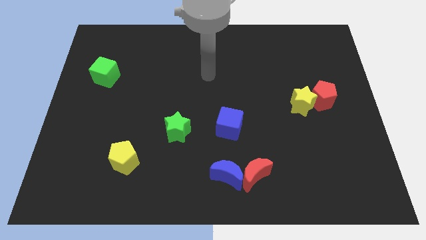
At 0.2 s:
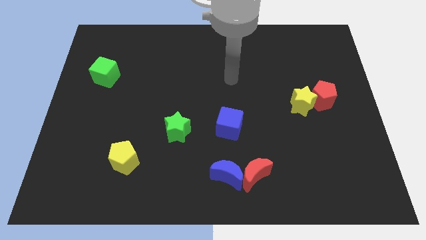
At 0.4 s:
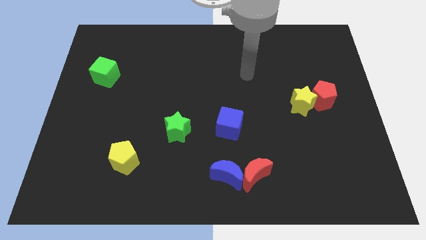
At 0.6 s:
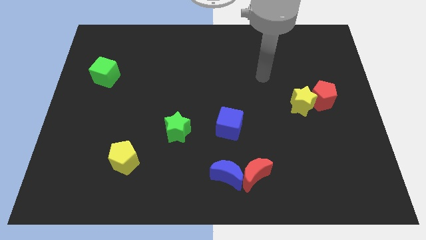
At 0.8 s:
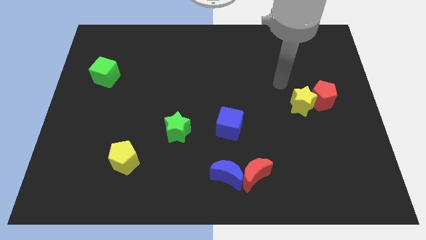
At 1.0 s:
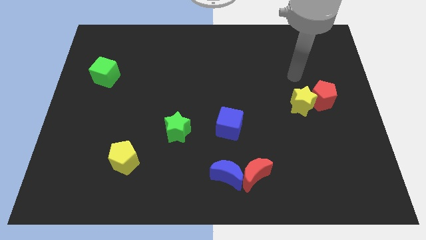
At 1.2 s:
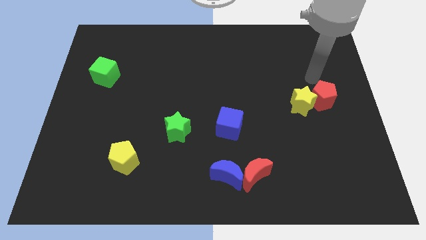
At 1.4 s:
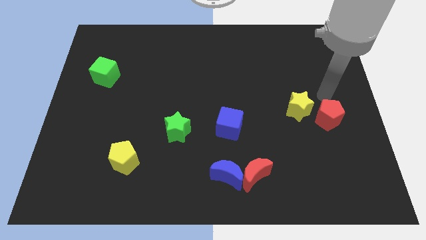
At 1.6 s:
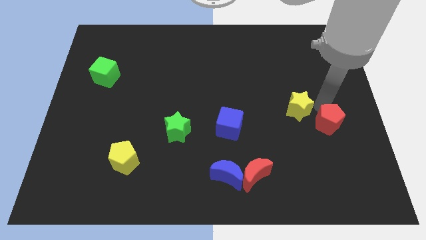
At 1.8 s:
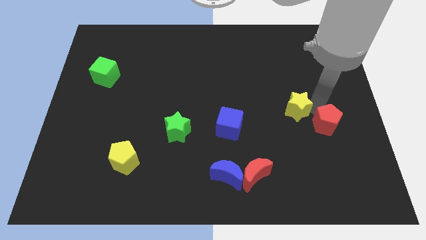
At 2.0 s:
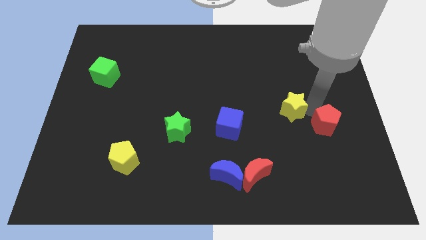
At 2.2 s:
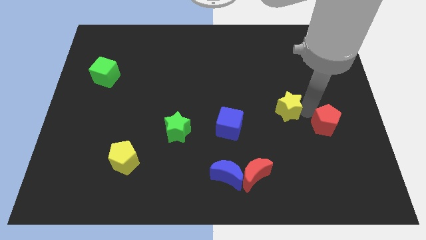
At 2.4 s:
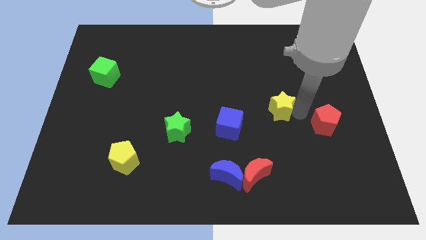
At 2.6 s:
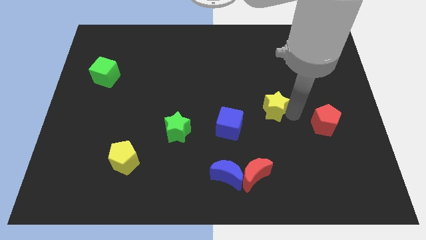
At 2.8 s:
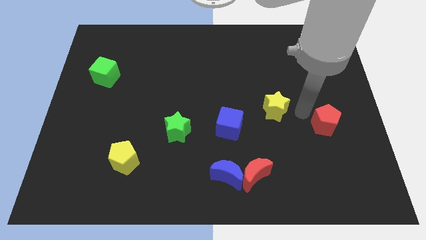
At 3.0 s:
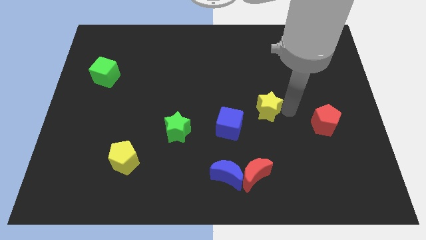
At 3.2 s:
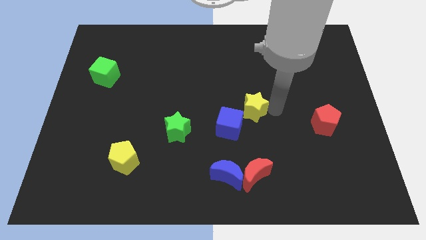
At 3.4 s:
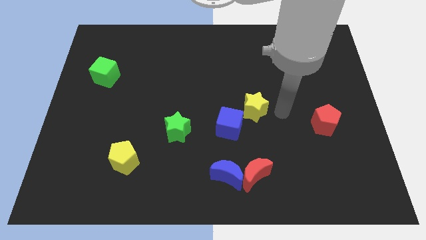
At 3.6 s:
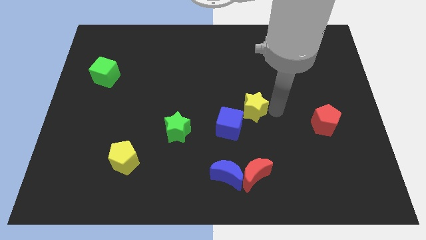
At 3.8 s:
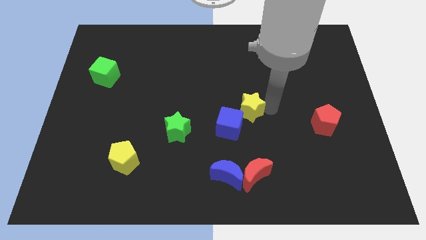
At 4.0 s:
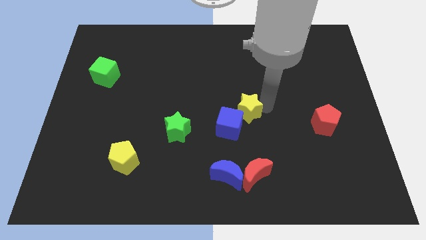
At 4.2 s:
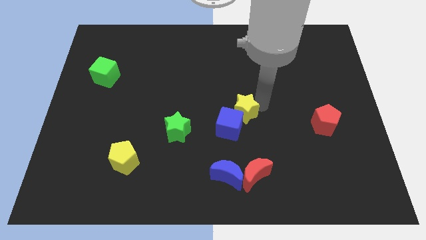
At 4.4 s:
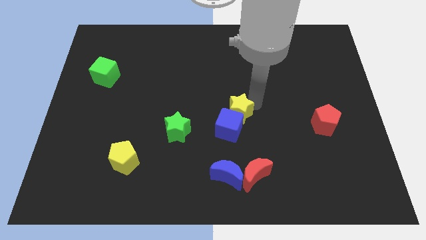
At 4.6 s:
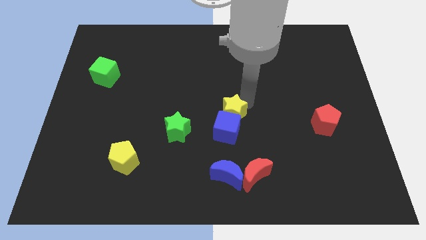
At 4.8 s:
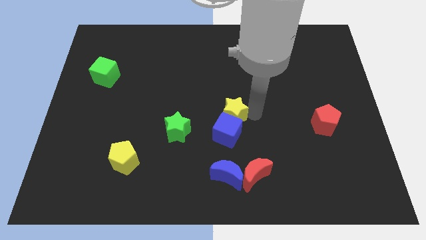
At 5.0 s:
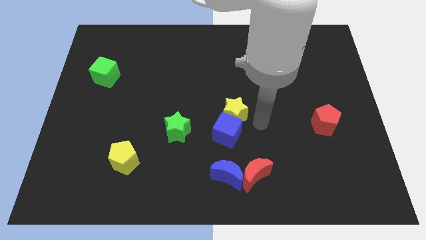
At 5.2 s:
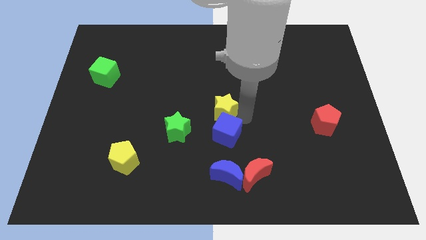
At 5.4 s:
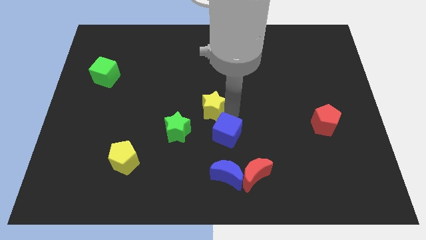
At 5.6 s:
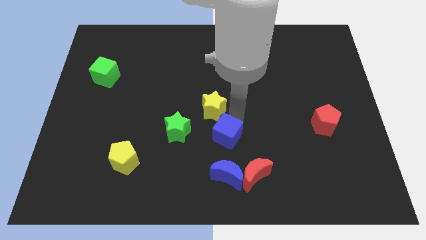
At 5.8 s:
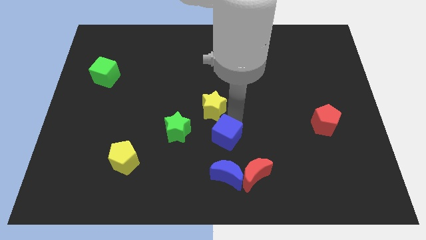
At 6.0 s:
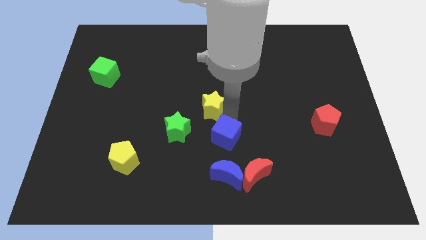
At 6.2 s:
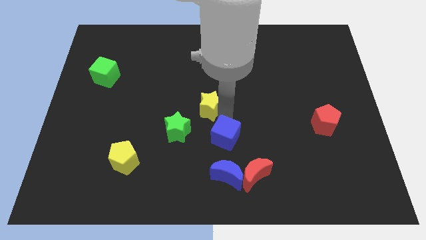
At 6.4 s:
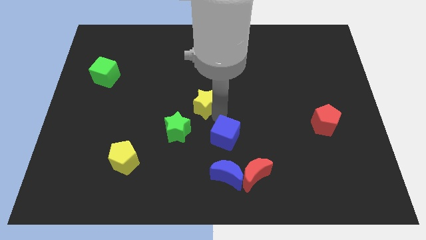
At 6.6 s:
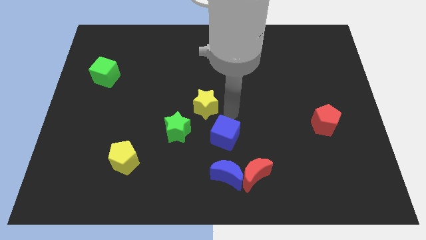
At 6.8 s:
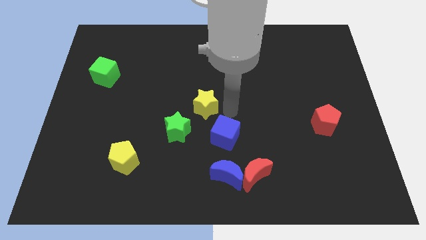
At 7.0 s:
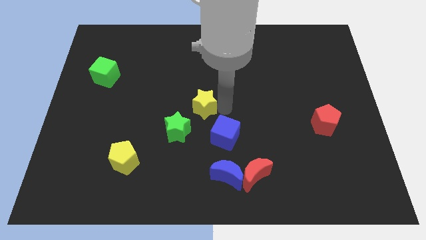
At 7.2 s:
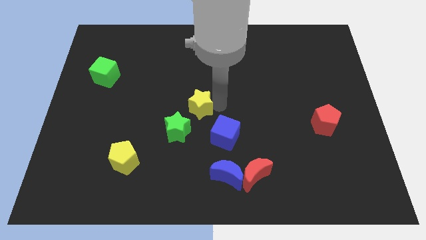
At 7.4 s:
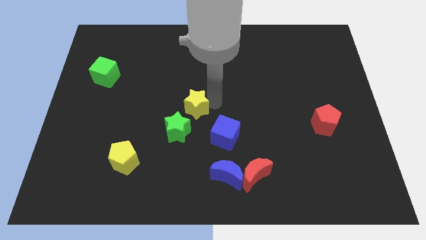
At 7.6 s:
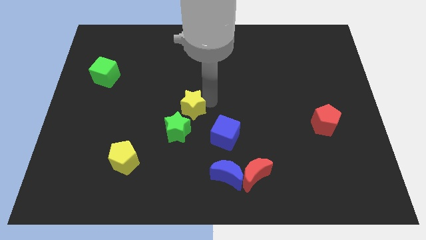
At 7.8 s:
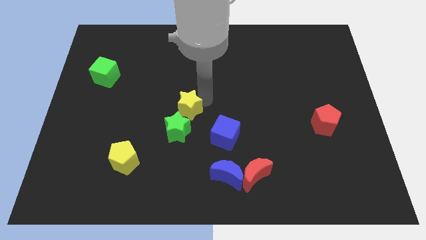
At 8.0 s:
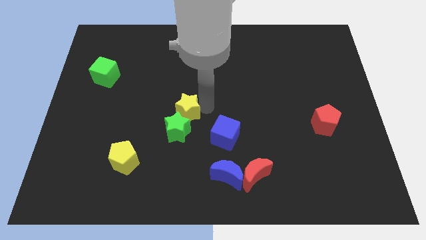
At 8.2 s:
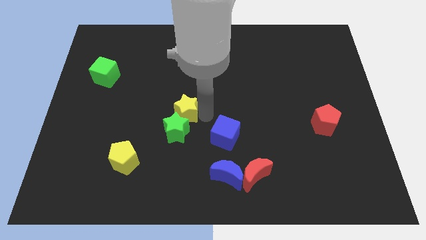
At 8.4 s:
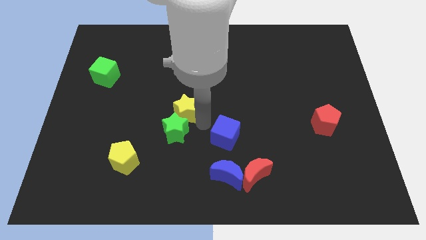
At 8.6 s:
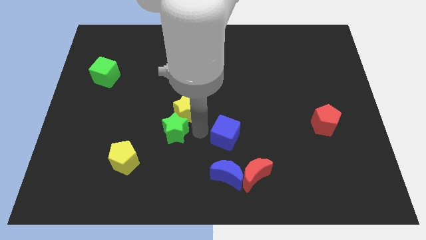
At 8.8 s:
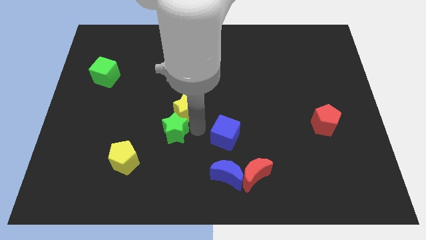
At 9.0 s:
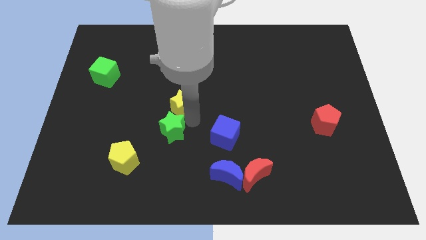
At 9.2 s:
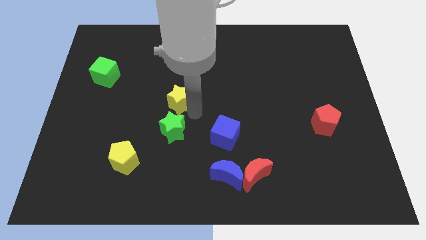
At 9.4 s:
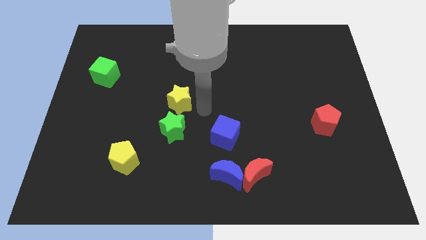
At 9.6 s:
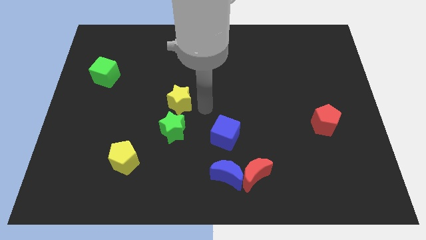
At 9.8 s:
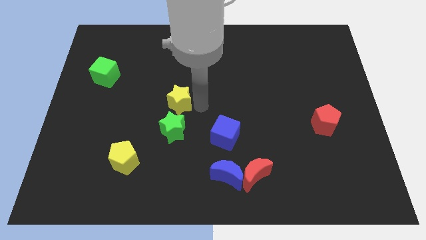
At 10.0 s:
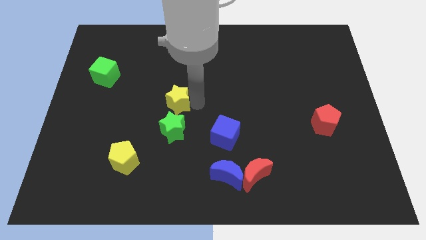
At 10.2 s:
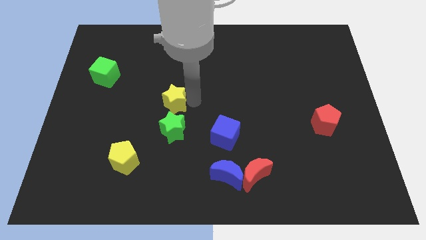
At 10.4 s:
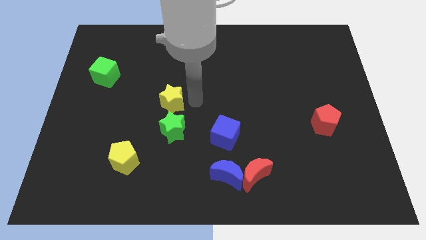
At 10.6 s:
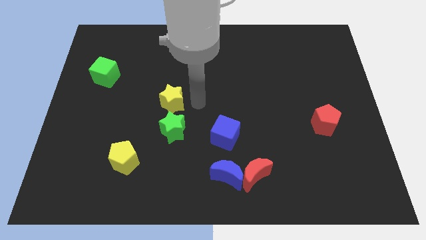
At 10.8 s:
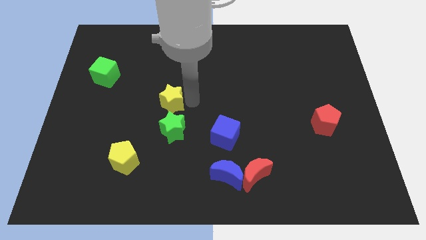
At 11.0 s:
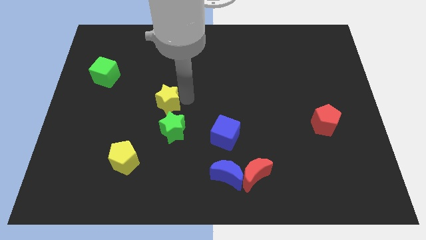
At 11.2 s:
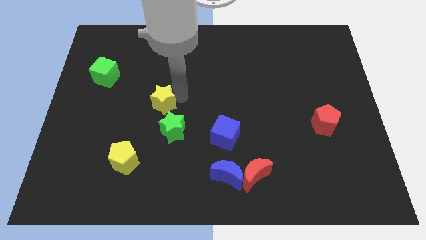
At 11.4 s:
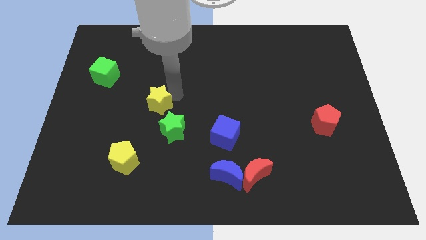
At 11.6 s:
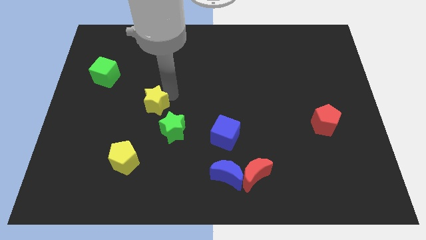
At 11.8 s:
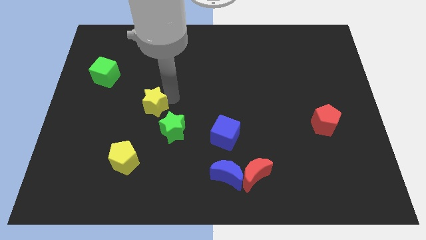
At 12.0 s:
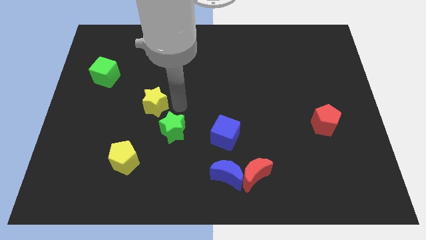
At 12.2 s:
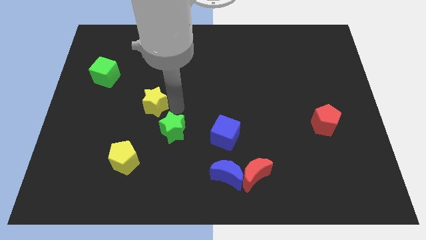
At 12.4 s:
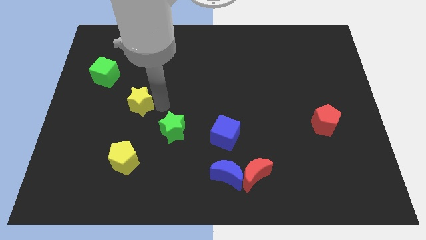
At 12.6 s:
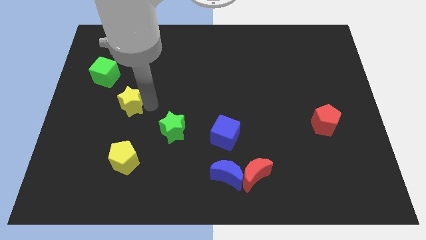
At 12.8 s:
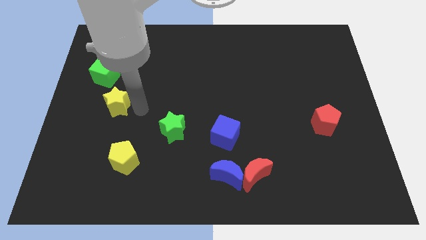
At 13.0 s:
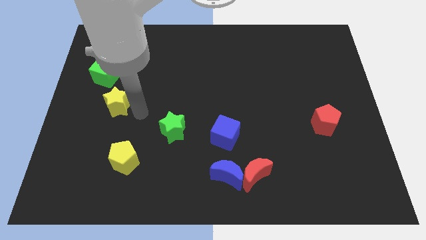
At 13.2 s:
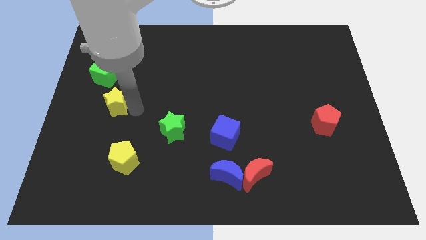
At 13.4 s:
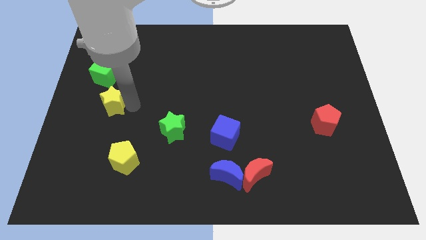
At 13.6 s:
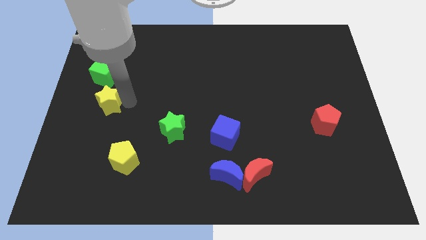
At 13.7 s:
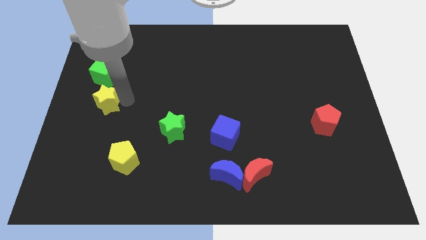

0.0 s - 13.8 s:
move the yellow star to the center left
